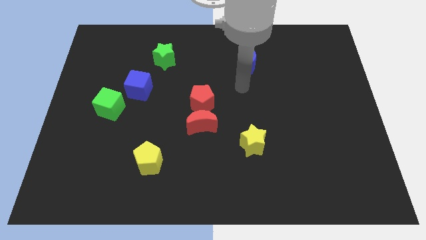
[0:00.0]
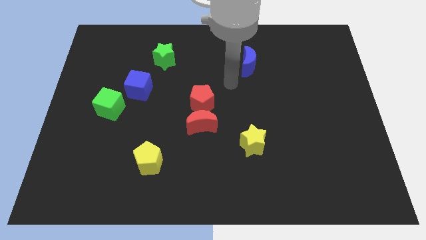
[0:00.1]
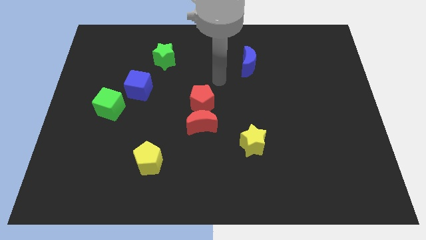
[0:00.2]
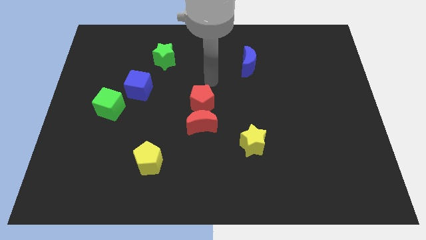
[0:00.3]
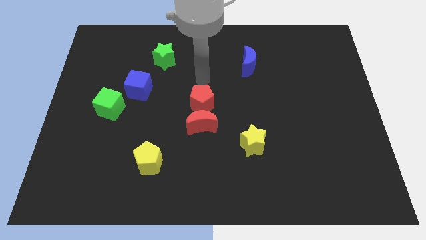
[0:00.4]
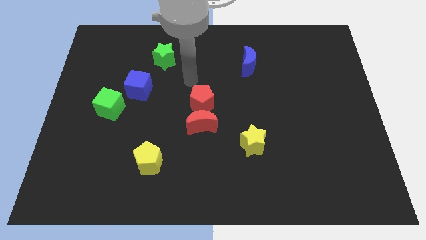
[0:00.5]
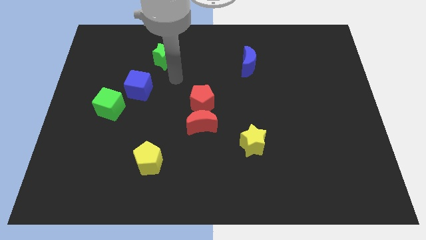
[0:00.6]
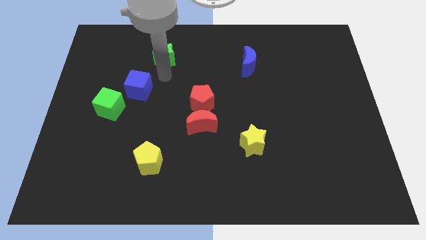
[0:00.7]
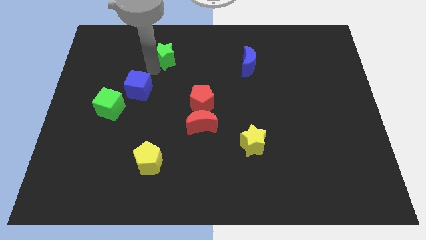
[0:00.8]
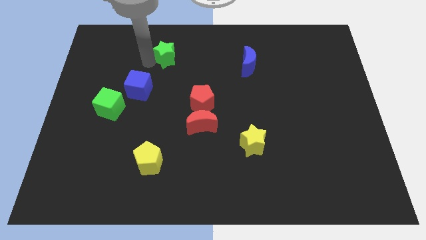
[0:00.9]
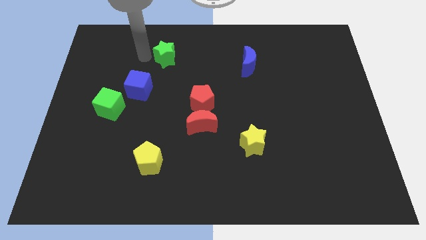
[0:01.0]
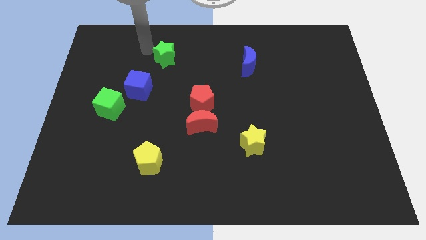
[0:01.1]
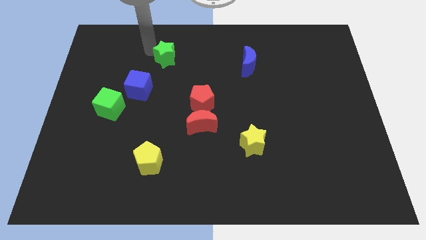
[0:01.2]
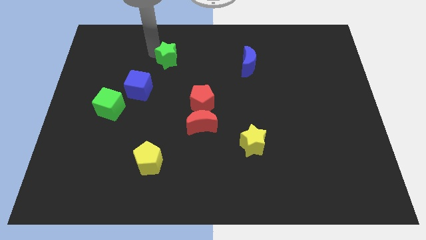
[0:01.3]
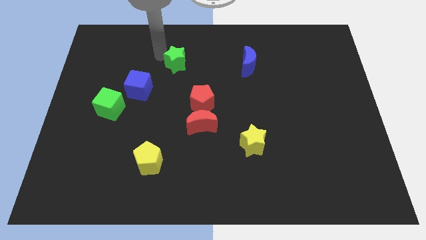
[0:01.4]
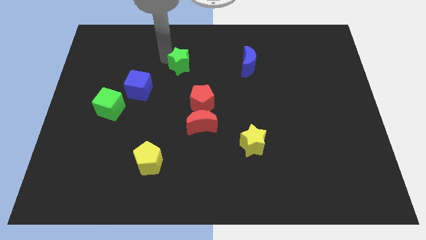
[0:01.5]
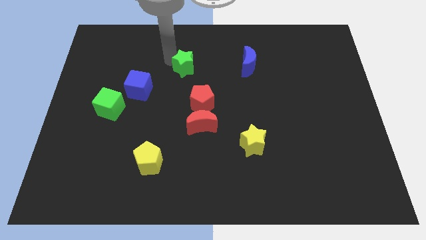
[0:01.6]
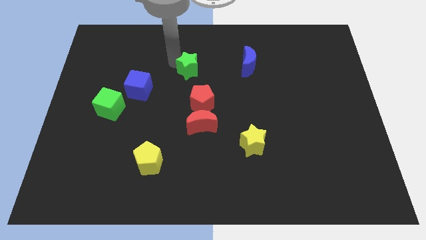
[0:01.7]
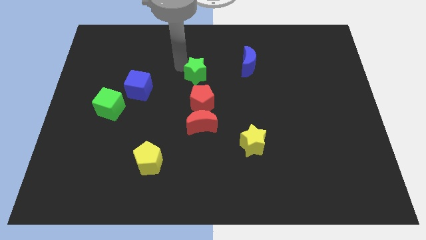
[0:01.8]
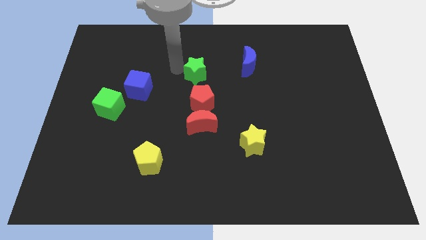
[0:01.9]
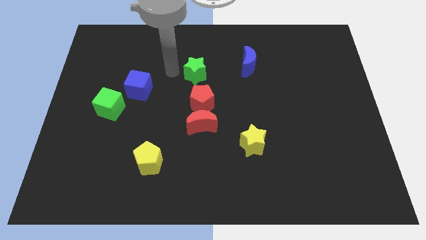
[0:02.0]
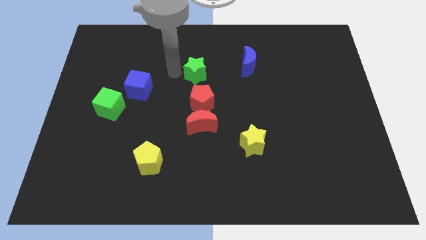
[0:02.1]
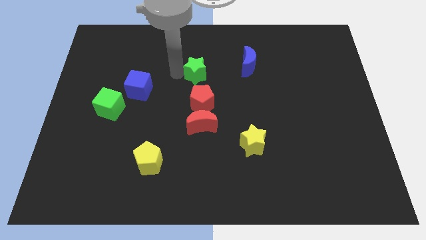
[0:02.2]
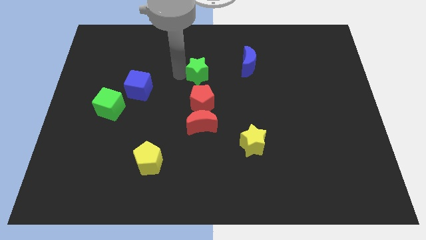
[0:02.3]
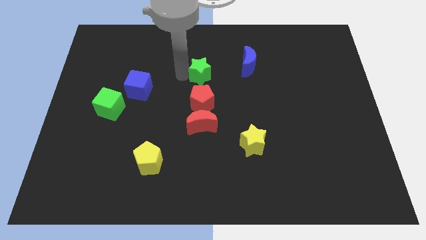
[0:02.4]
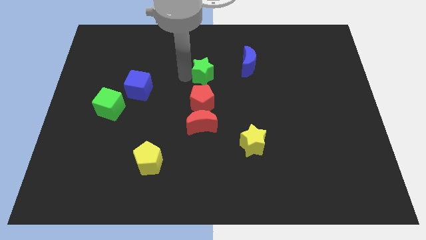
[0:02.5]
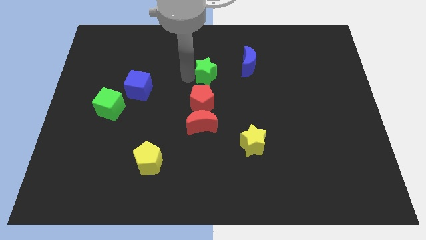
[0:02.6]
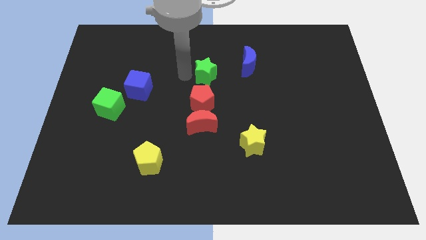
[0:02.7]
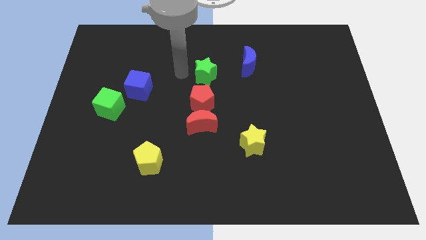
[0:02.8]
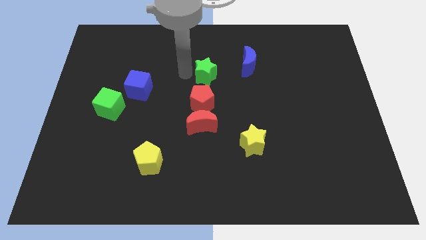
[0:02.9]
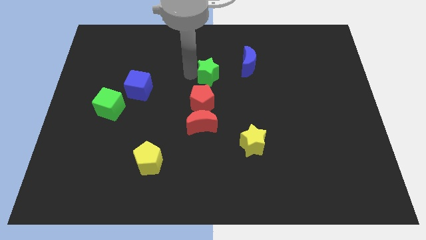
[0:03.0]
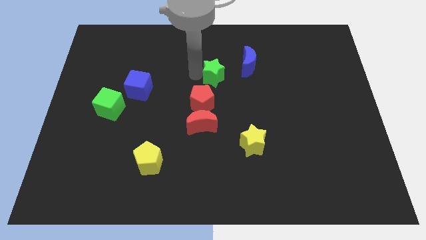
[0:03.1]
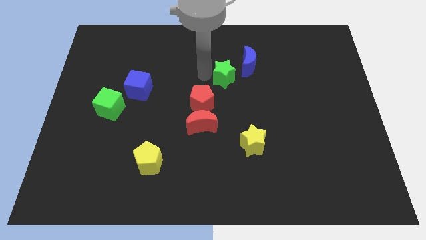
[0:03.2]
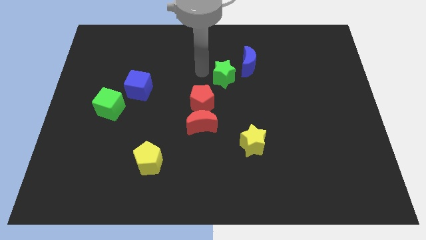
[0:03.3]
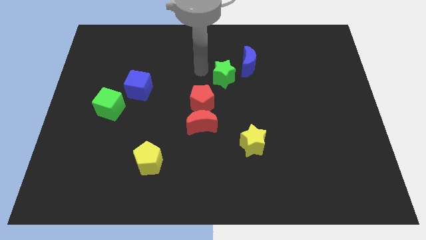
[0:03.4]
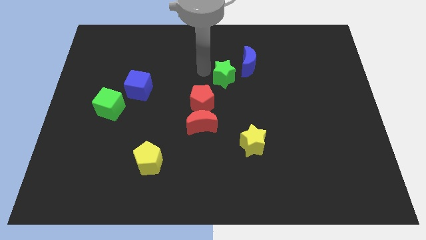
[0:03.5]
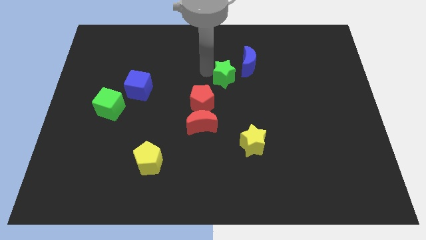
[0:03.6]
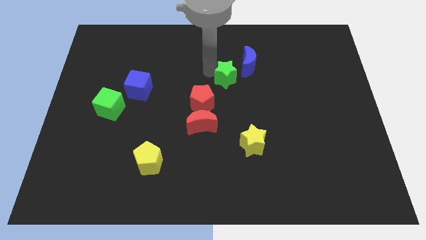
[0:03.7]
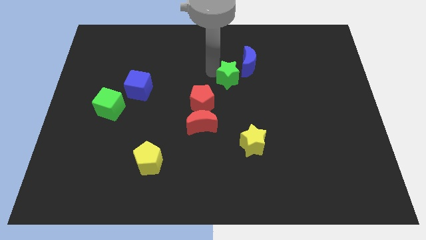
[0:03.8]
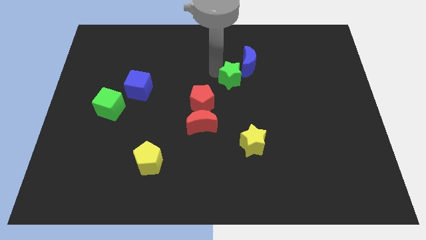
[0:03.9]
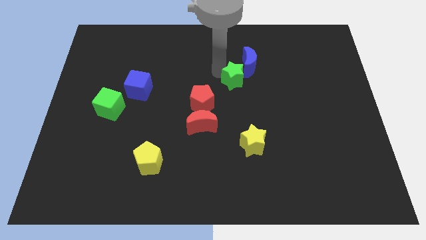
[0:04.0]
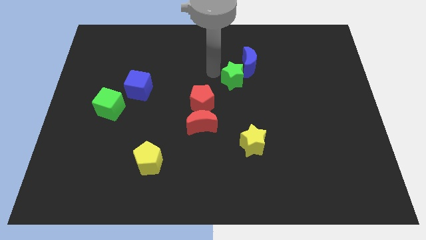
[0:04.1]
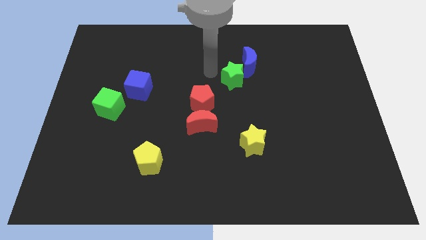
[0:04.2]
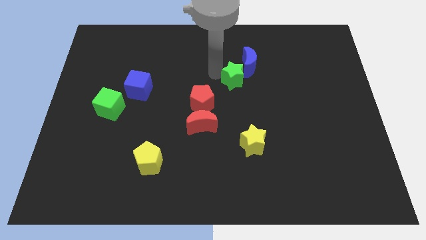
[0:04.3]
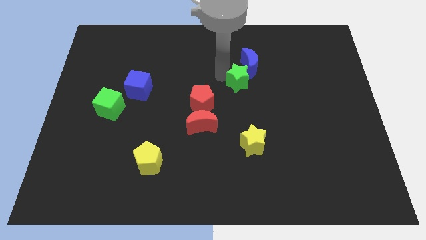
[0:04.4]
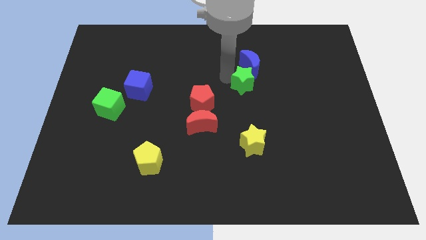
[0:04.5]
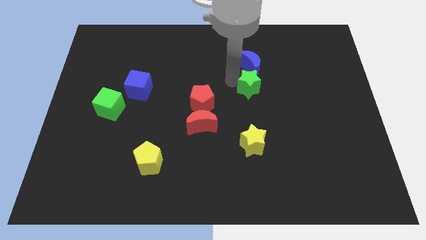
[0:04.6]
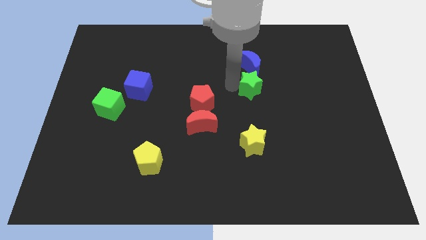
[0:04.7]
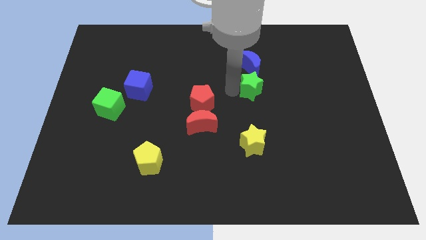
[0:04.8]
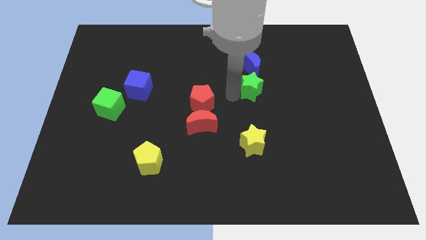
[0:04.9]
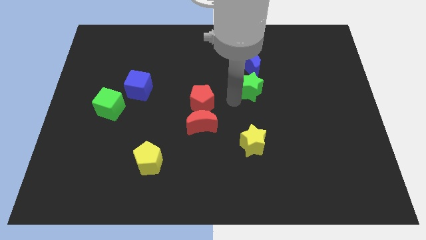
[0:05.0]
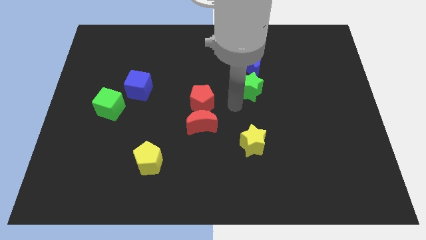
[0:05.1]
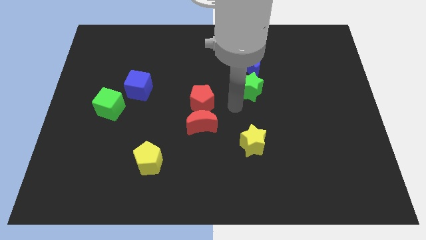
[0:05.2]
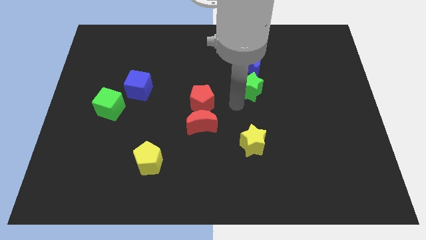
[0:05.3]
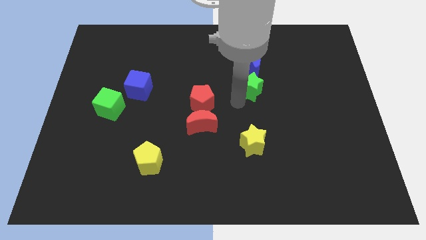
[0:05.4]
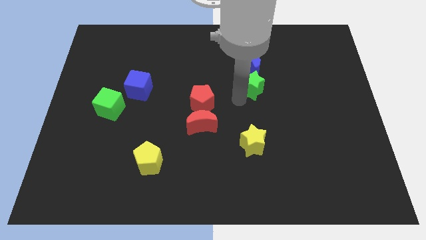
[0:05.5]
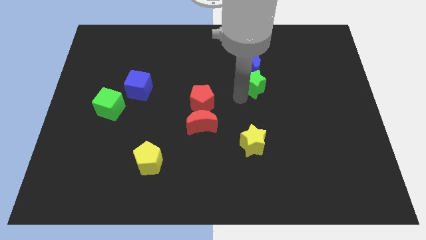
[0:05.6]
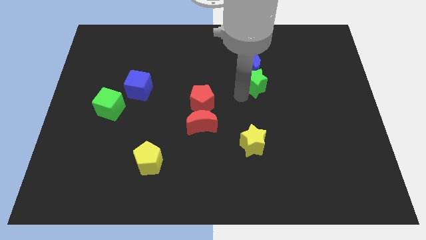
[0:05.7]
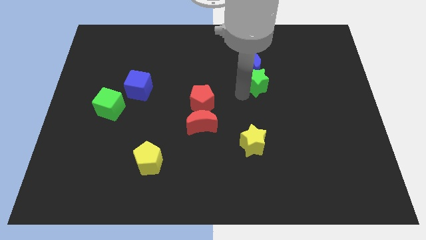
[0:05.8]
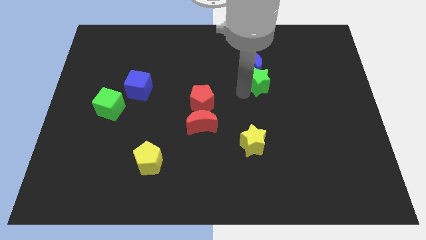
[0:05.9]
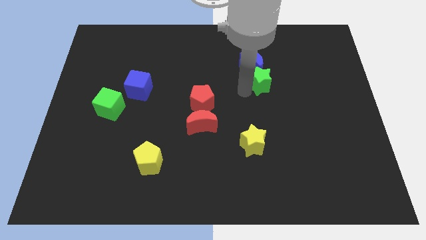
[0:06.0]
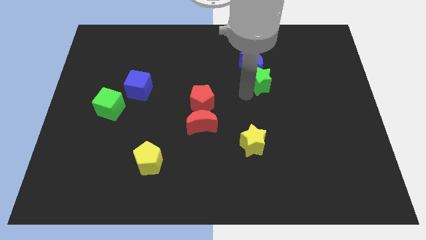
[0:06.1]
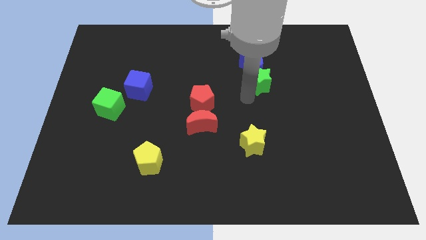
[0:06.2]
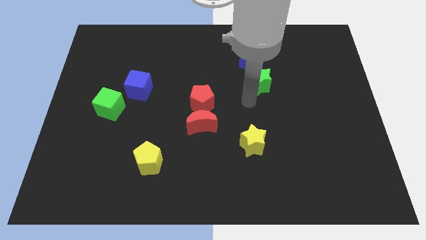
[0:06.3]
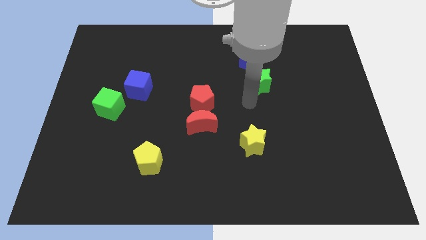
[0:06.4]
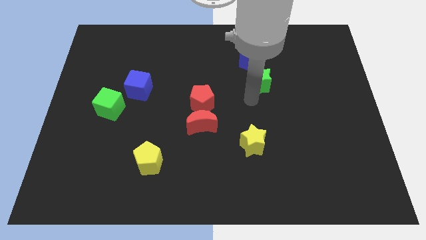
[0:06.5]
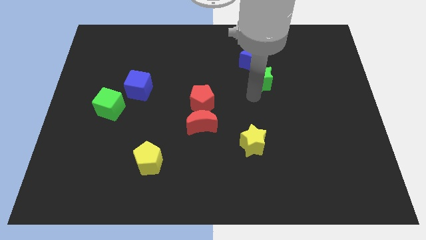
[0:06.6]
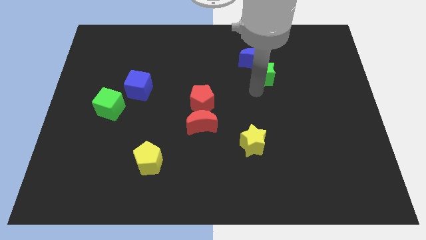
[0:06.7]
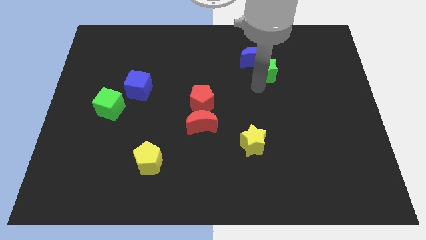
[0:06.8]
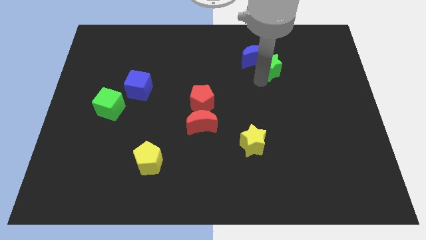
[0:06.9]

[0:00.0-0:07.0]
move the green star to the right of the blue moon

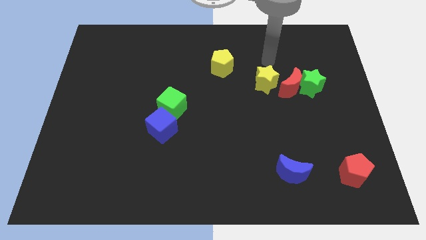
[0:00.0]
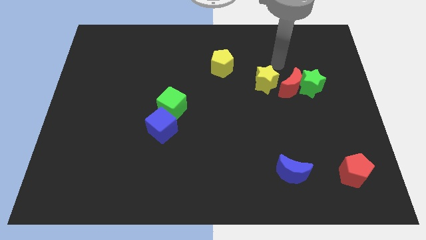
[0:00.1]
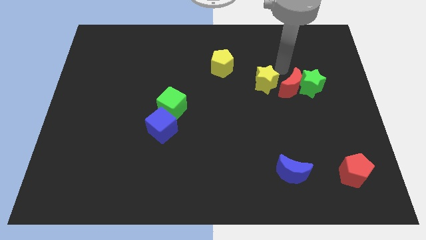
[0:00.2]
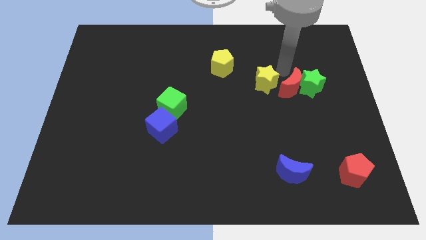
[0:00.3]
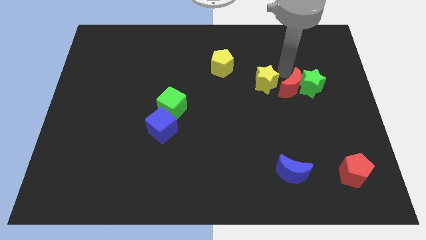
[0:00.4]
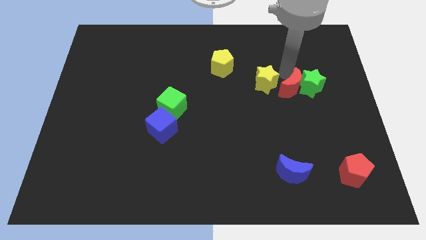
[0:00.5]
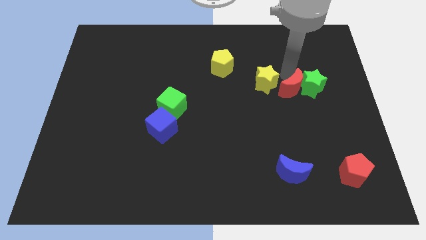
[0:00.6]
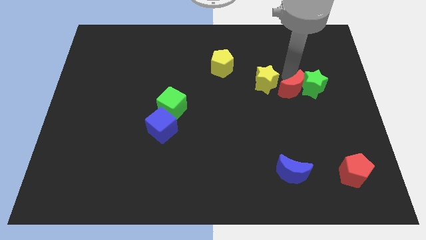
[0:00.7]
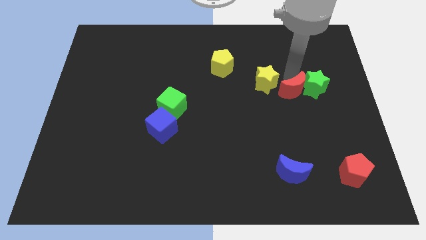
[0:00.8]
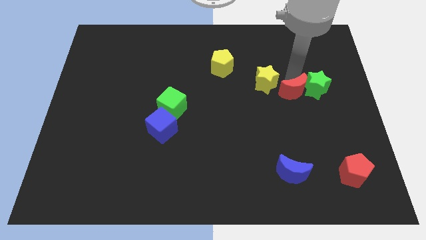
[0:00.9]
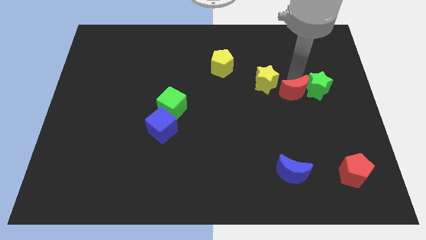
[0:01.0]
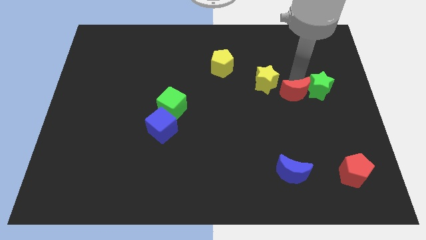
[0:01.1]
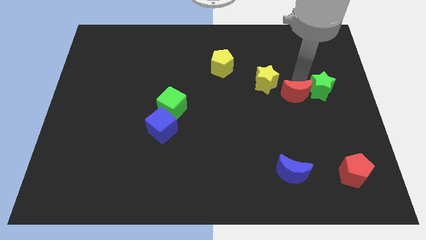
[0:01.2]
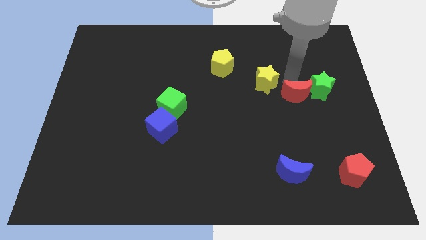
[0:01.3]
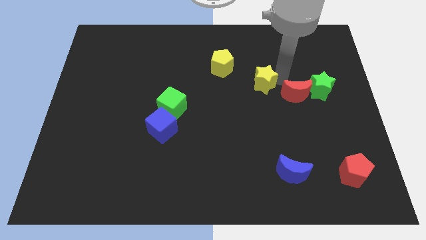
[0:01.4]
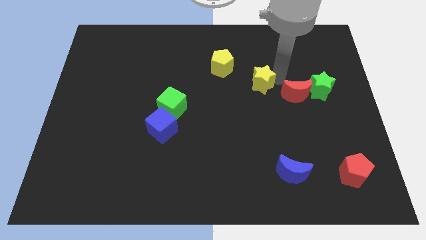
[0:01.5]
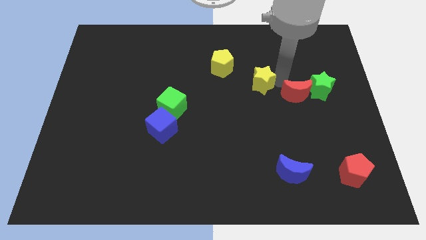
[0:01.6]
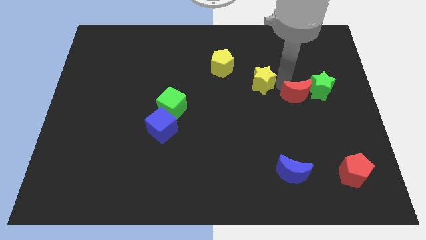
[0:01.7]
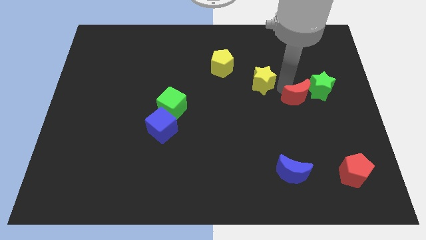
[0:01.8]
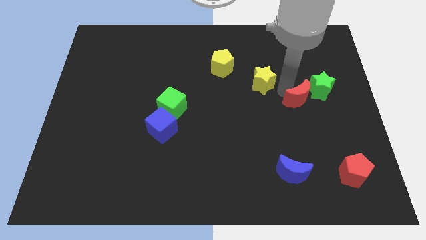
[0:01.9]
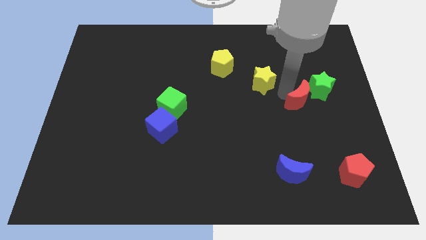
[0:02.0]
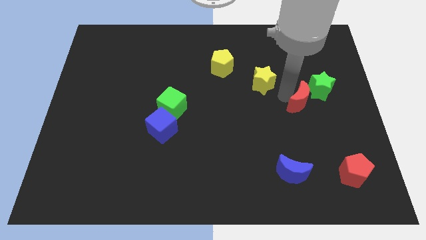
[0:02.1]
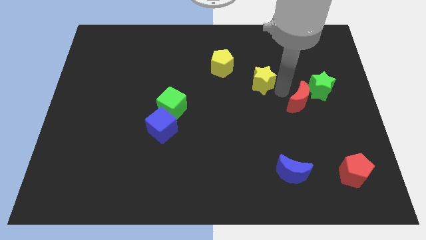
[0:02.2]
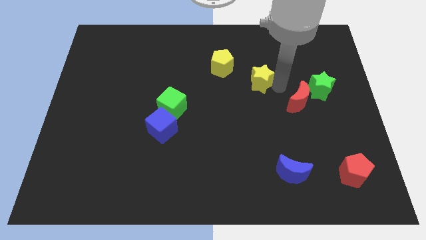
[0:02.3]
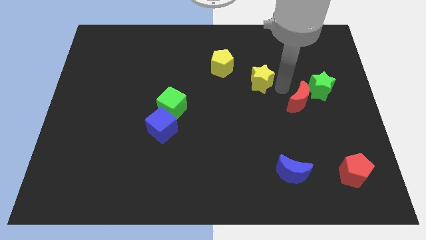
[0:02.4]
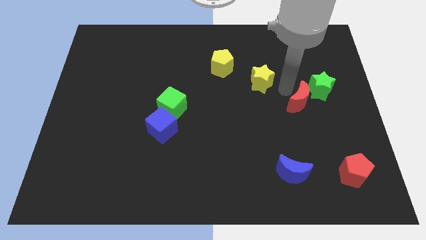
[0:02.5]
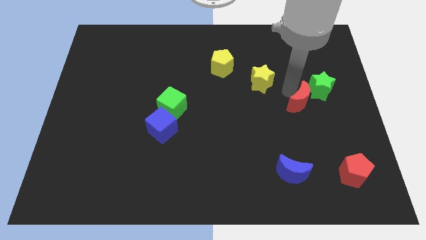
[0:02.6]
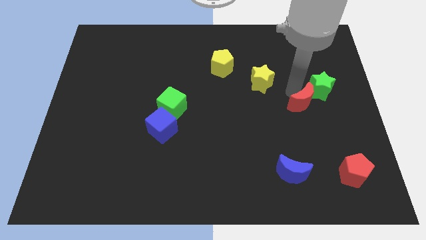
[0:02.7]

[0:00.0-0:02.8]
put the red moon to the bottom of the green star
